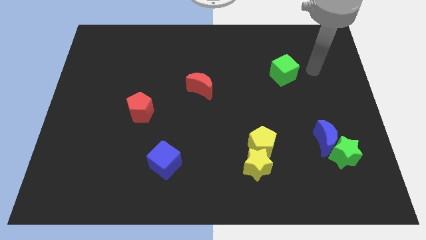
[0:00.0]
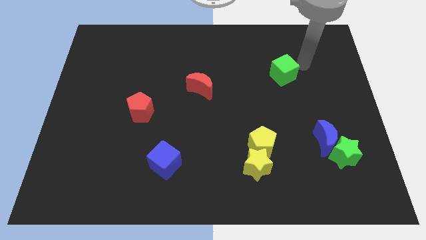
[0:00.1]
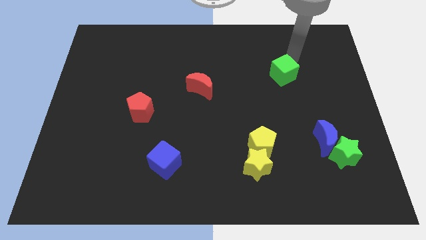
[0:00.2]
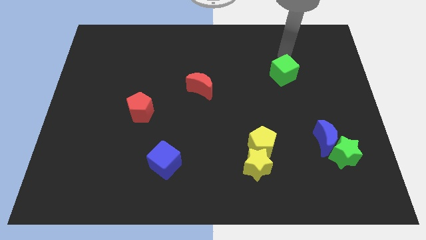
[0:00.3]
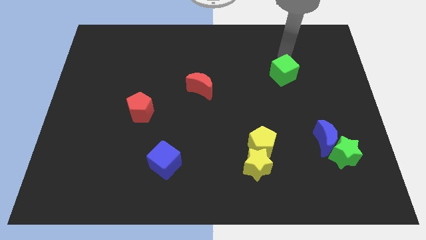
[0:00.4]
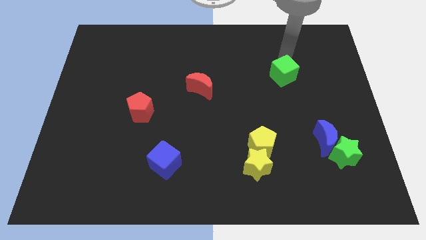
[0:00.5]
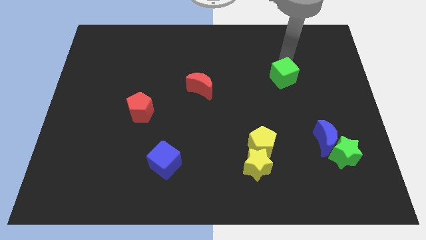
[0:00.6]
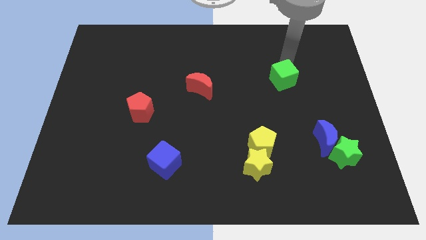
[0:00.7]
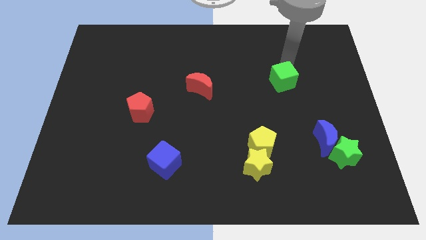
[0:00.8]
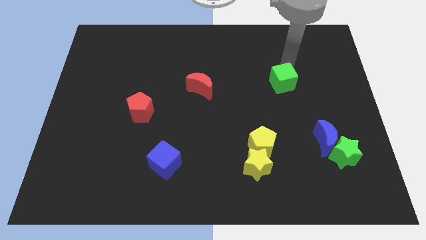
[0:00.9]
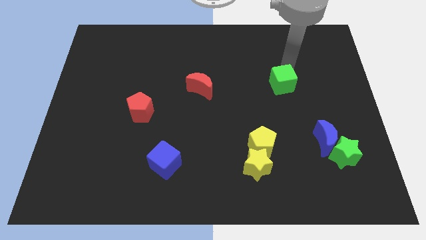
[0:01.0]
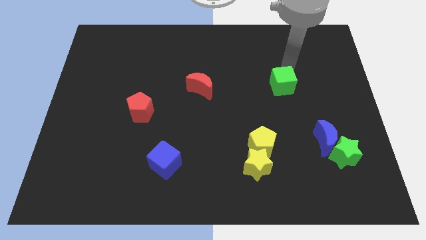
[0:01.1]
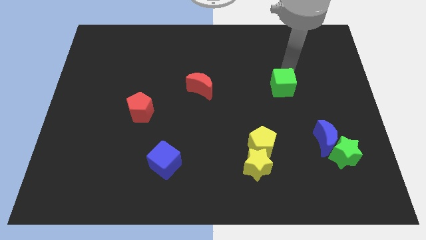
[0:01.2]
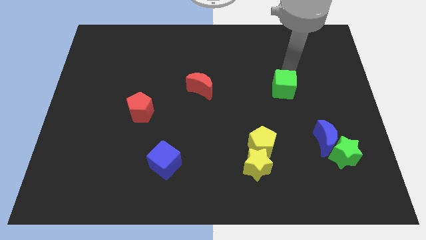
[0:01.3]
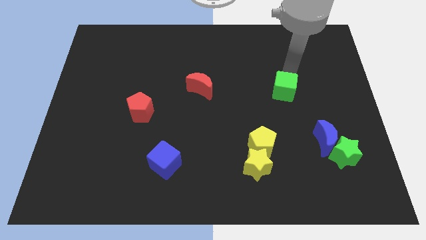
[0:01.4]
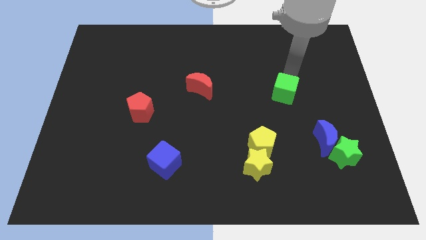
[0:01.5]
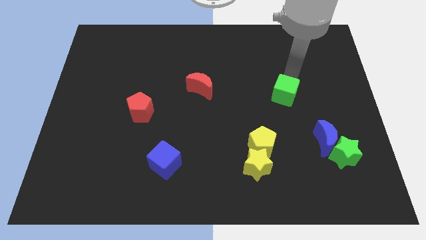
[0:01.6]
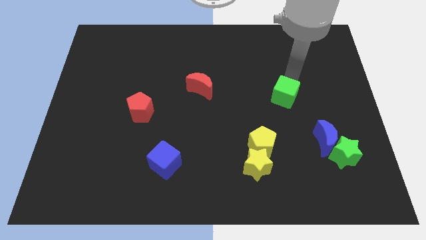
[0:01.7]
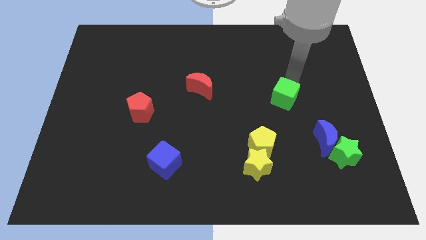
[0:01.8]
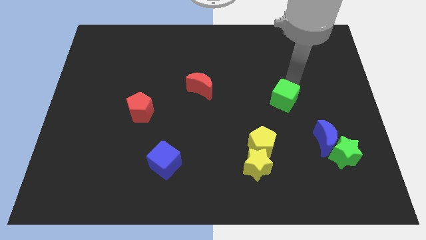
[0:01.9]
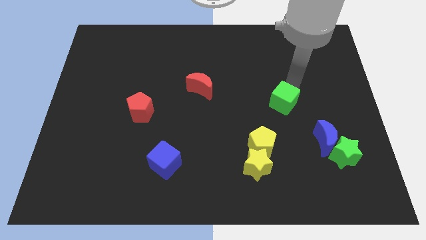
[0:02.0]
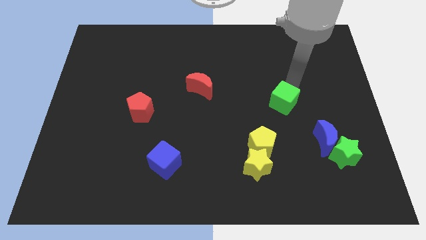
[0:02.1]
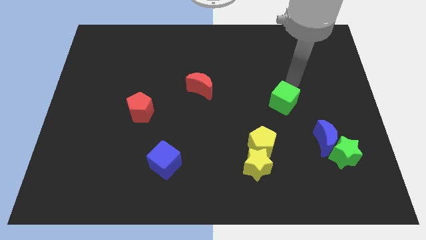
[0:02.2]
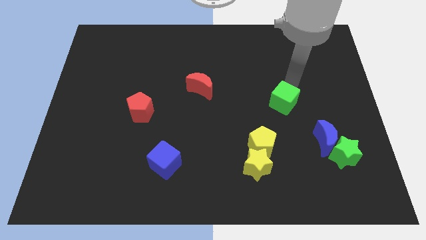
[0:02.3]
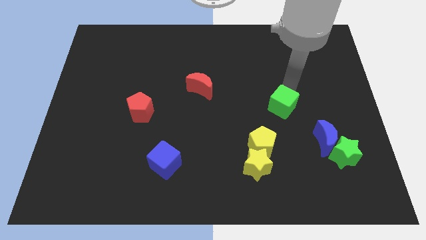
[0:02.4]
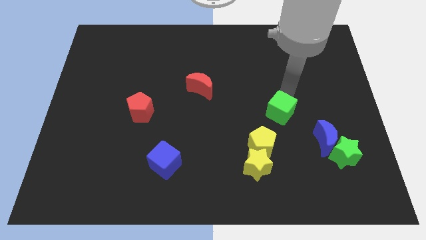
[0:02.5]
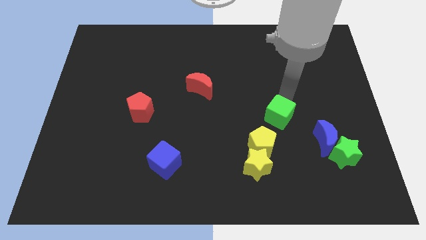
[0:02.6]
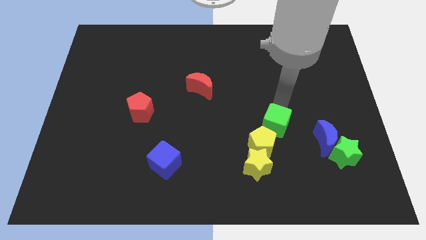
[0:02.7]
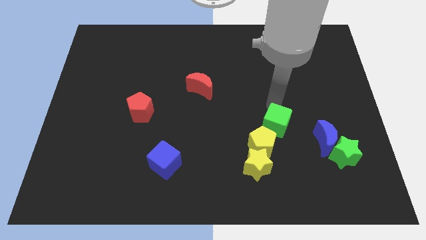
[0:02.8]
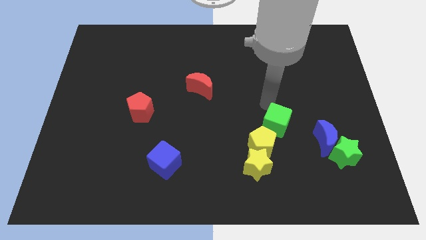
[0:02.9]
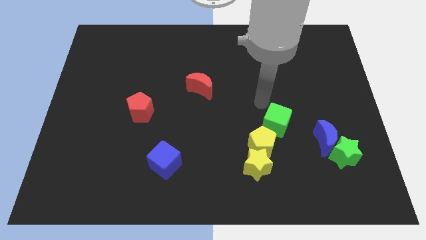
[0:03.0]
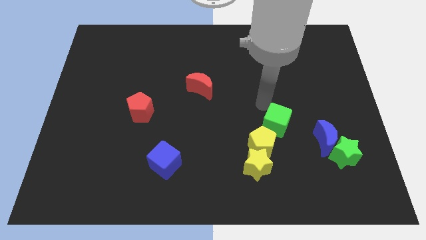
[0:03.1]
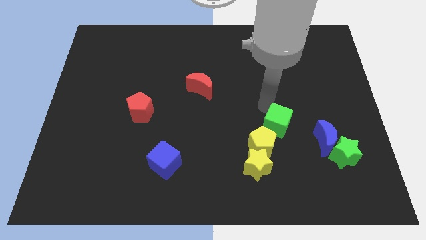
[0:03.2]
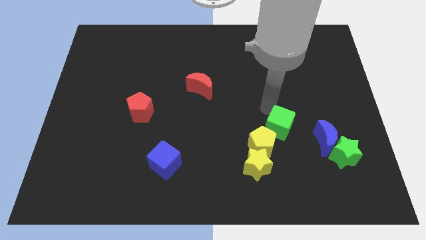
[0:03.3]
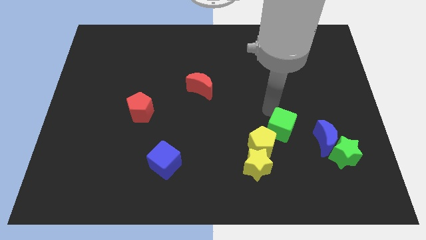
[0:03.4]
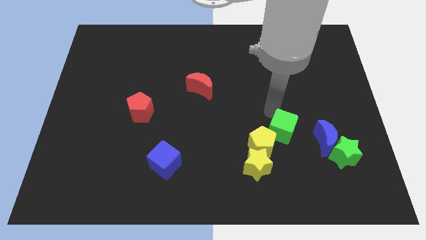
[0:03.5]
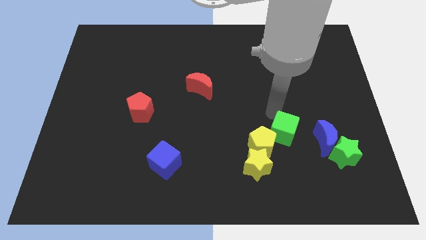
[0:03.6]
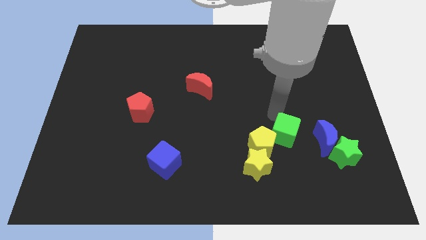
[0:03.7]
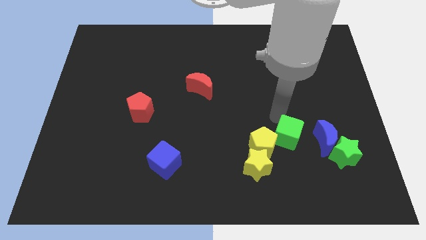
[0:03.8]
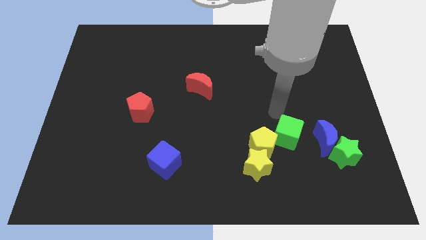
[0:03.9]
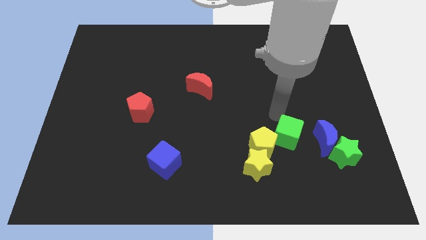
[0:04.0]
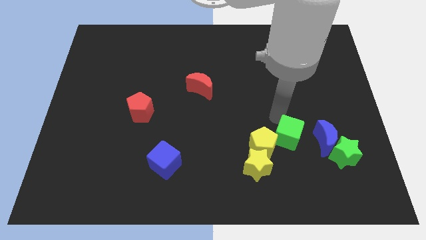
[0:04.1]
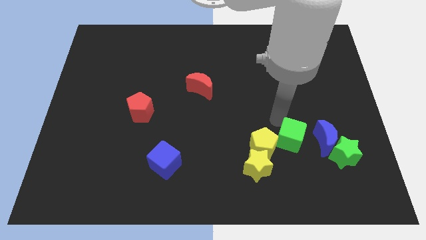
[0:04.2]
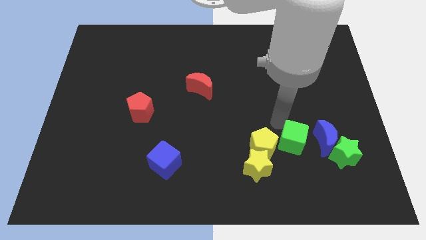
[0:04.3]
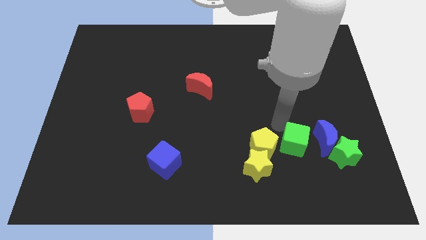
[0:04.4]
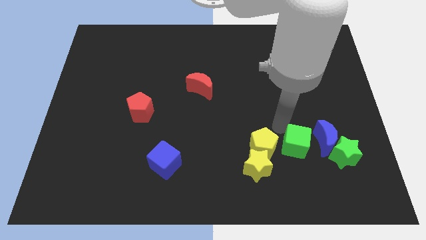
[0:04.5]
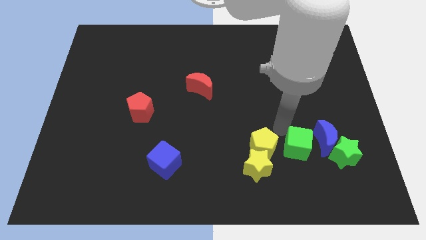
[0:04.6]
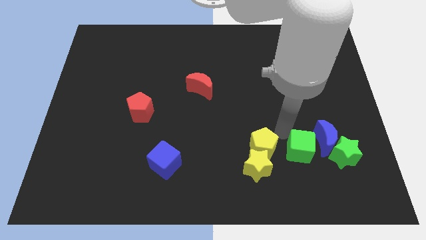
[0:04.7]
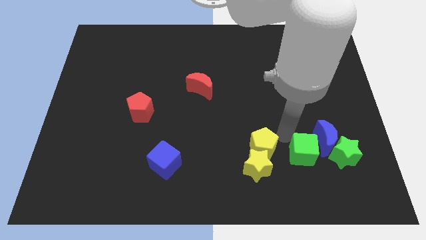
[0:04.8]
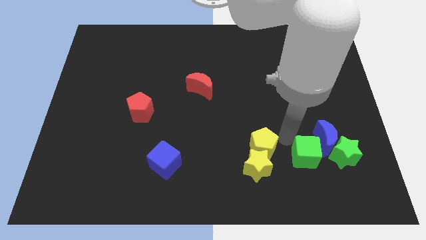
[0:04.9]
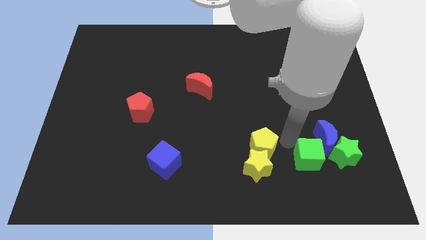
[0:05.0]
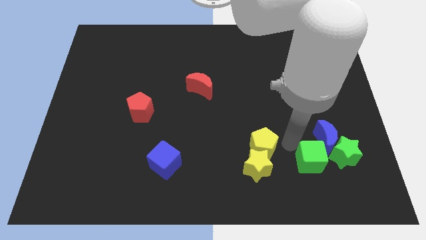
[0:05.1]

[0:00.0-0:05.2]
move the green cube to the bottom left side of the green star

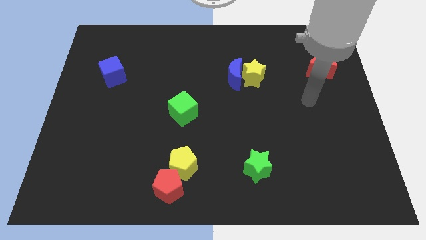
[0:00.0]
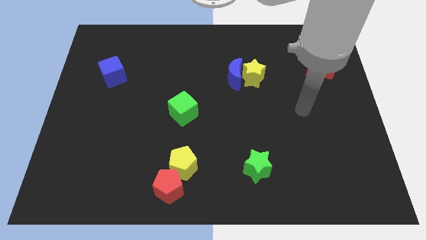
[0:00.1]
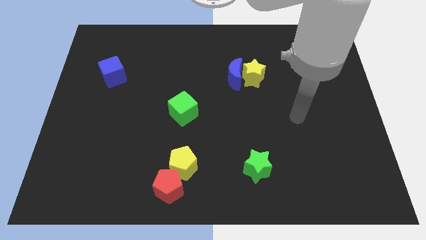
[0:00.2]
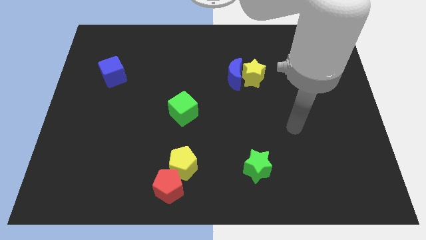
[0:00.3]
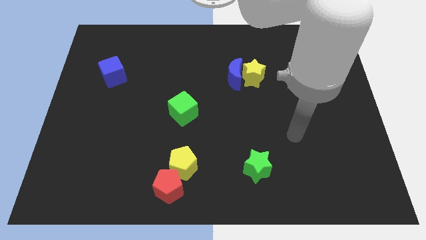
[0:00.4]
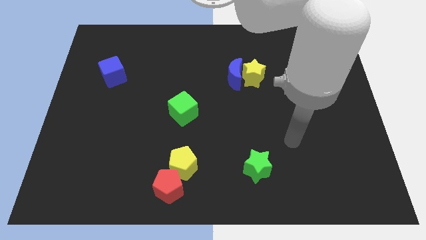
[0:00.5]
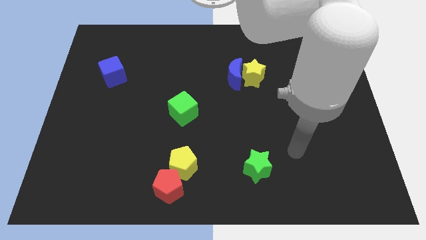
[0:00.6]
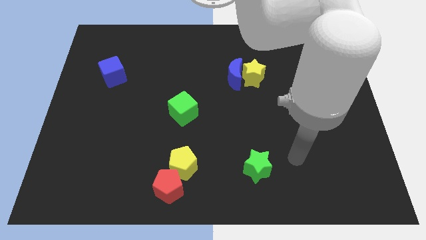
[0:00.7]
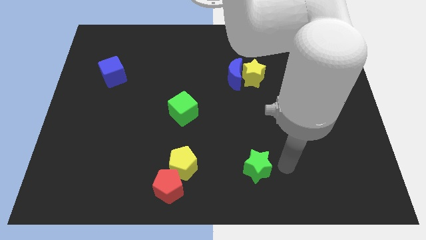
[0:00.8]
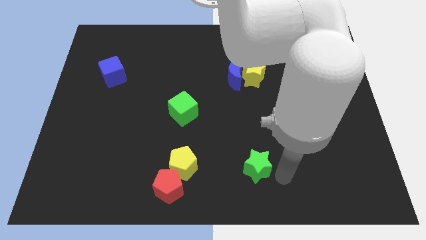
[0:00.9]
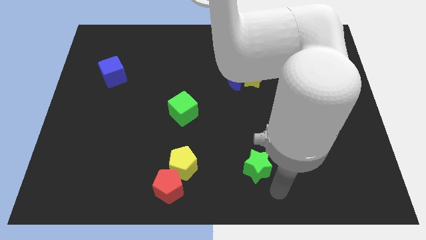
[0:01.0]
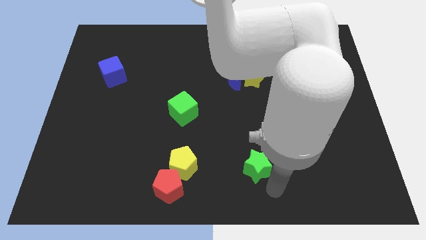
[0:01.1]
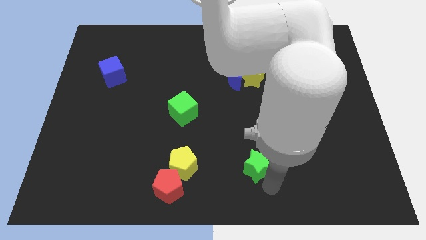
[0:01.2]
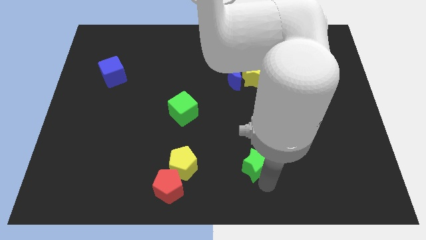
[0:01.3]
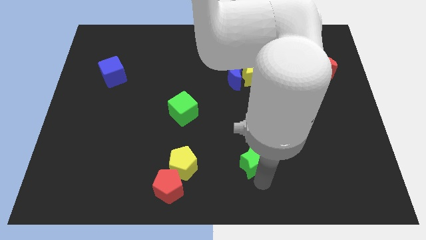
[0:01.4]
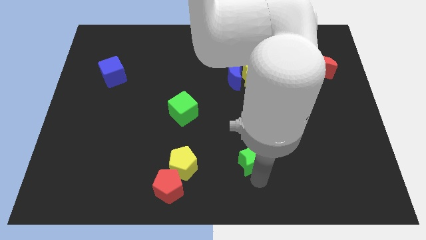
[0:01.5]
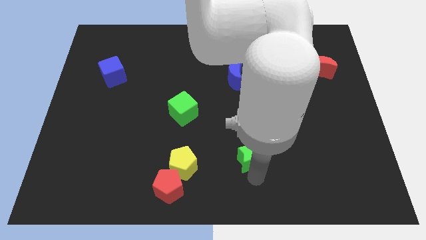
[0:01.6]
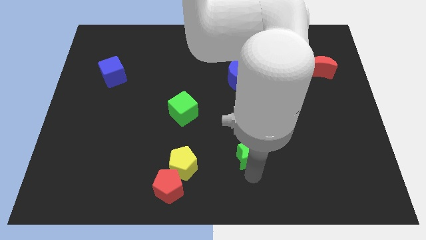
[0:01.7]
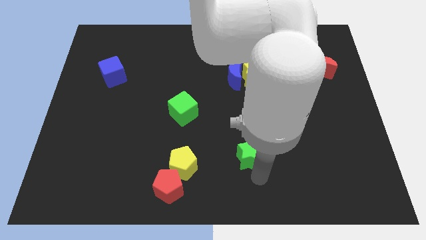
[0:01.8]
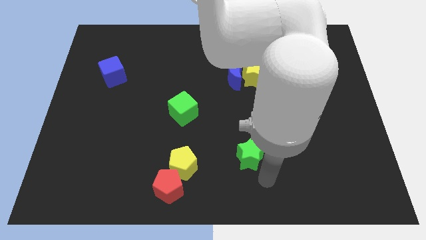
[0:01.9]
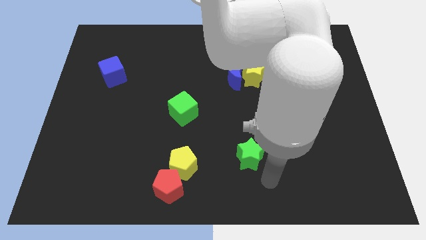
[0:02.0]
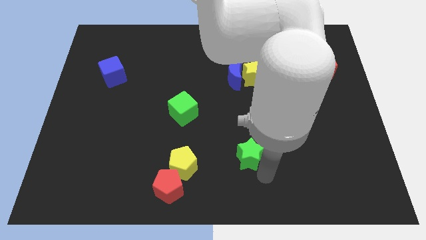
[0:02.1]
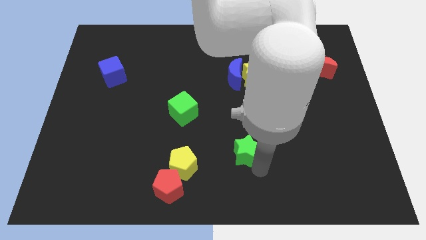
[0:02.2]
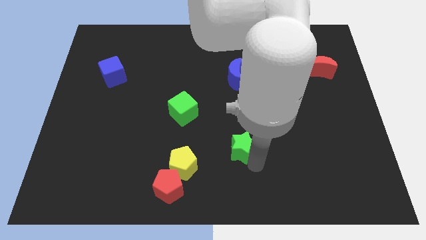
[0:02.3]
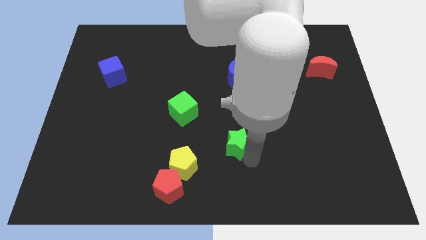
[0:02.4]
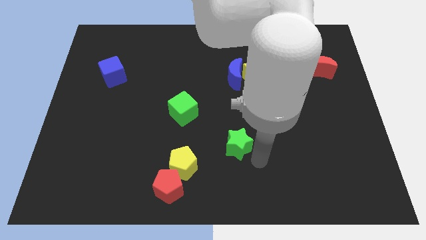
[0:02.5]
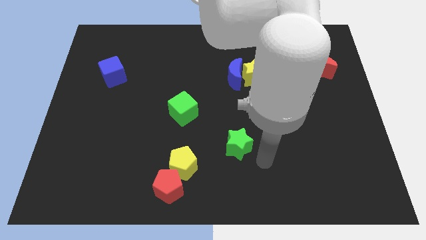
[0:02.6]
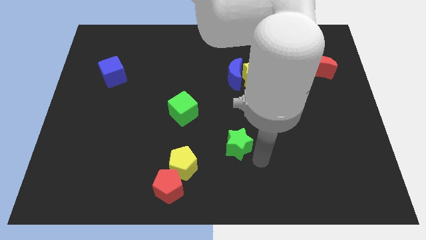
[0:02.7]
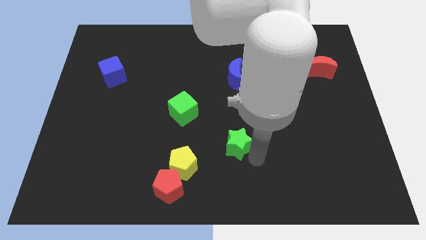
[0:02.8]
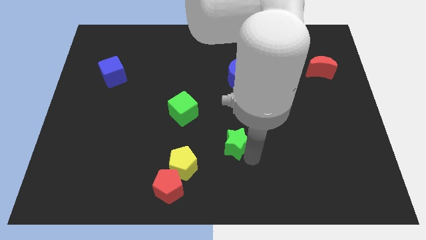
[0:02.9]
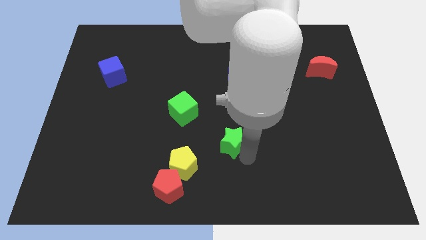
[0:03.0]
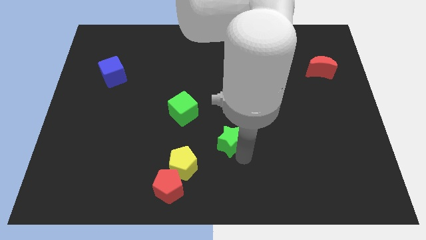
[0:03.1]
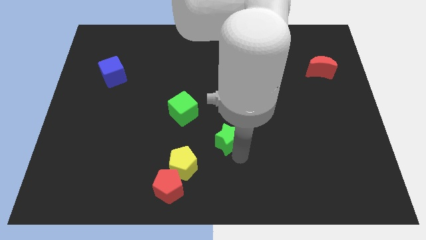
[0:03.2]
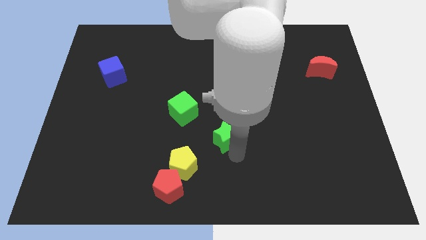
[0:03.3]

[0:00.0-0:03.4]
put the green star to the bottom right side of the green cube
